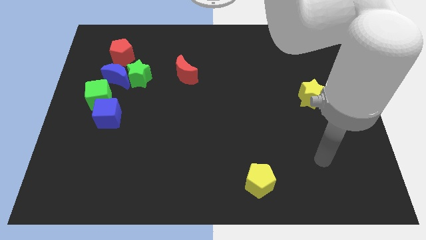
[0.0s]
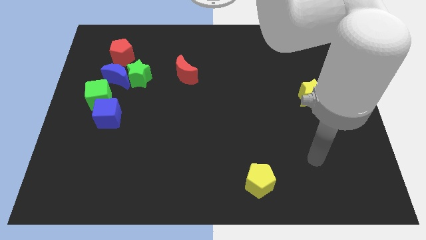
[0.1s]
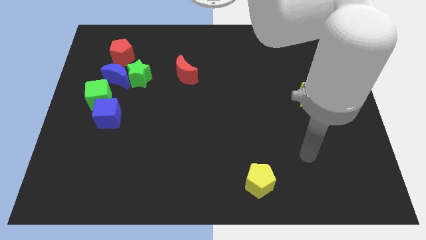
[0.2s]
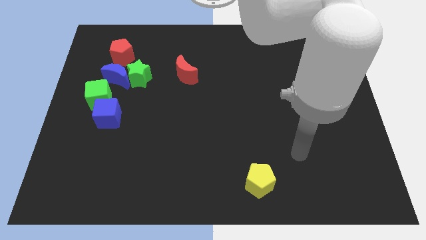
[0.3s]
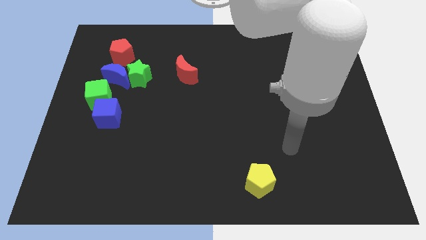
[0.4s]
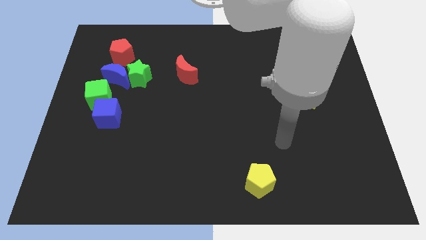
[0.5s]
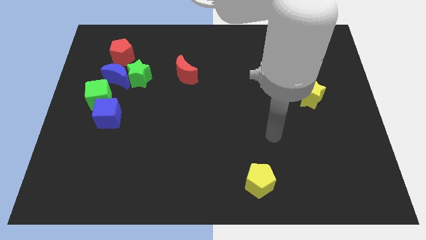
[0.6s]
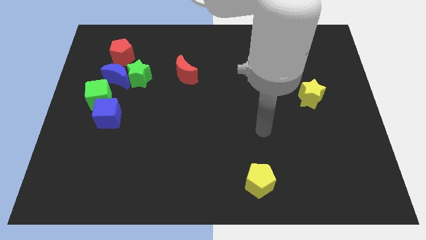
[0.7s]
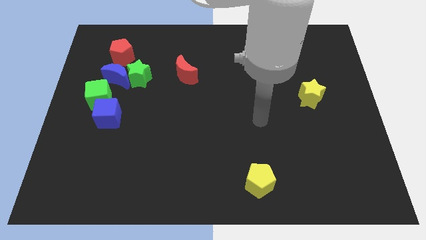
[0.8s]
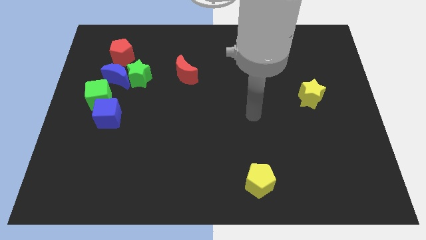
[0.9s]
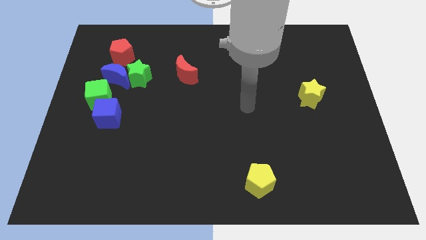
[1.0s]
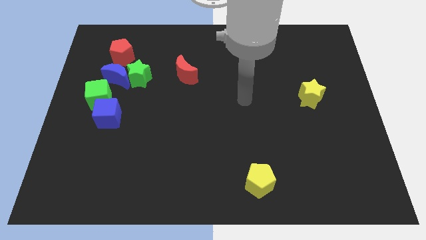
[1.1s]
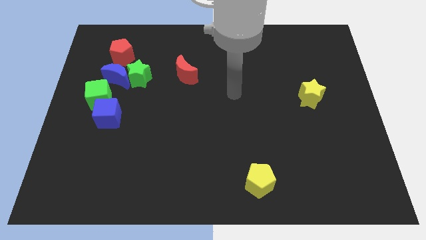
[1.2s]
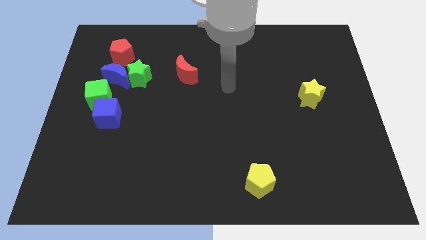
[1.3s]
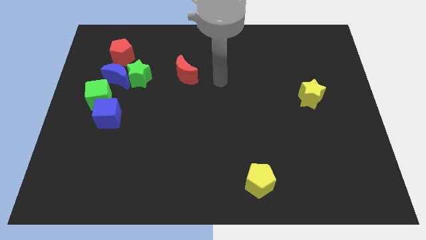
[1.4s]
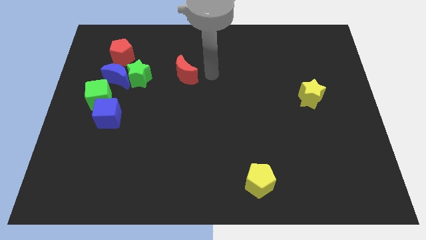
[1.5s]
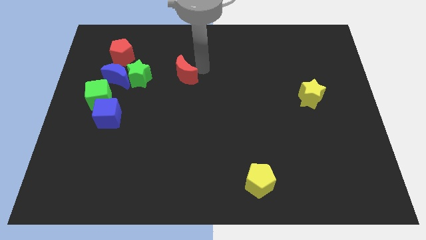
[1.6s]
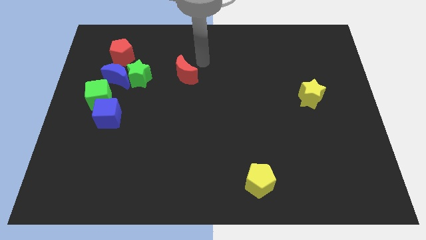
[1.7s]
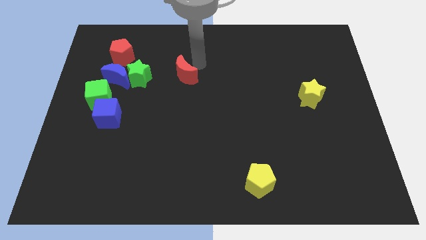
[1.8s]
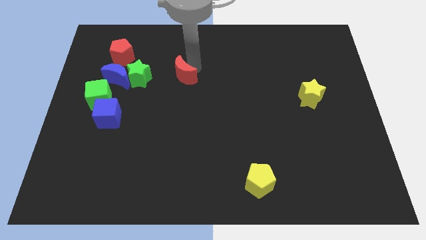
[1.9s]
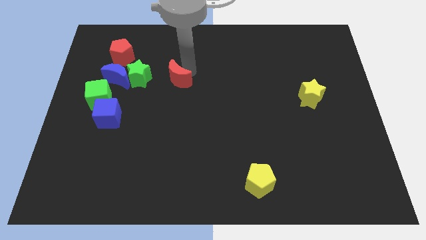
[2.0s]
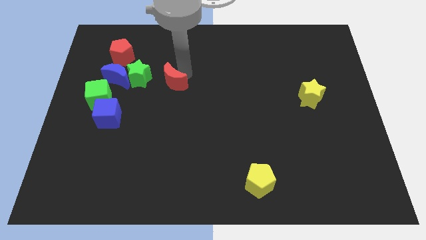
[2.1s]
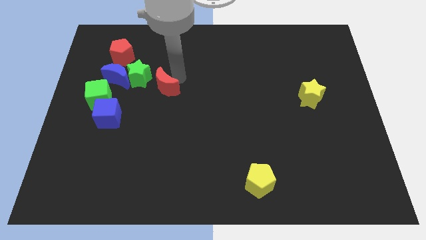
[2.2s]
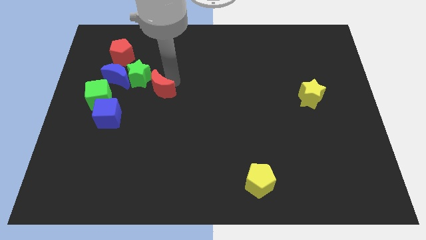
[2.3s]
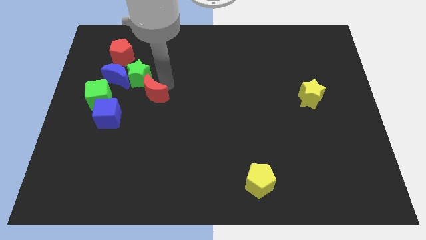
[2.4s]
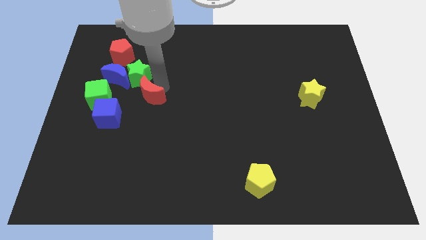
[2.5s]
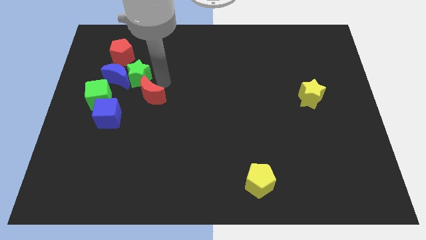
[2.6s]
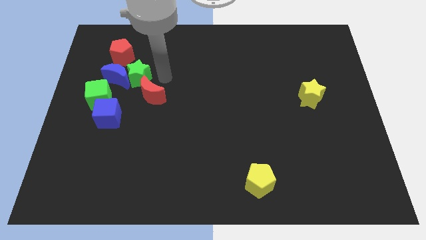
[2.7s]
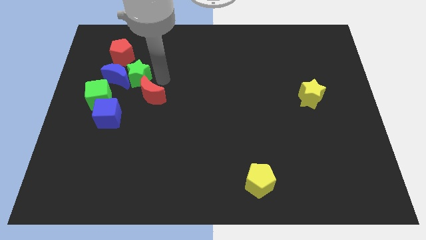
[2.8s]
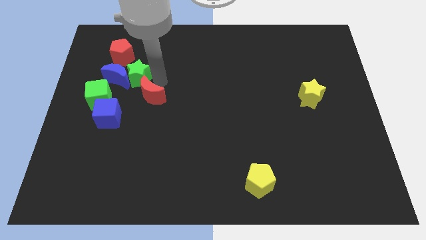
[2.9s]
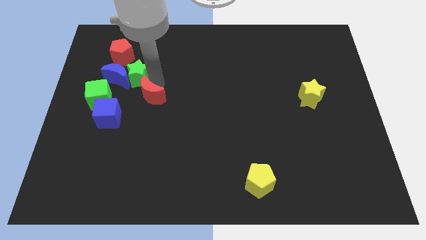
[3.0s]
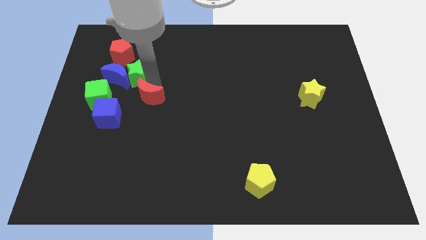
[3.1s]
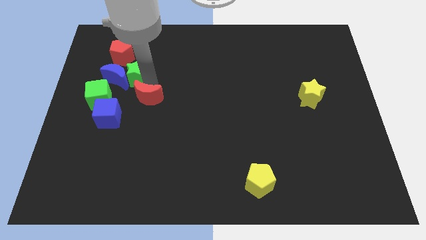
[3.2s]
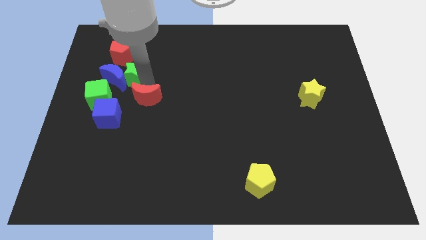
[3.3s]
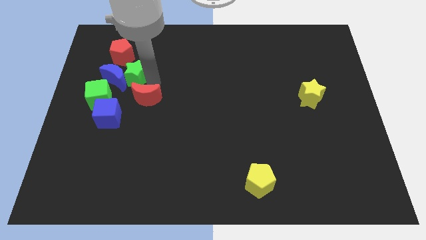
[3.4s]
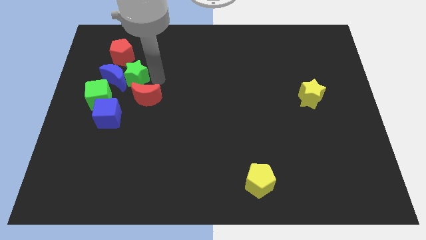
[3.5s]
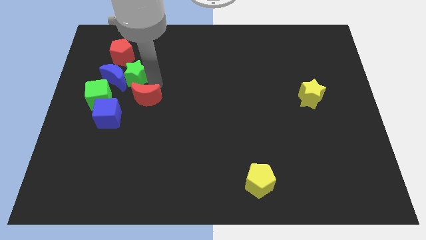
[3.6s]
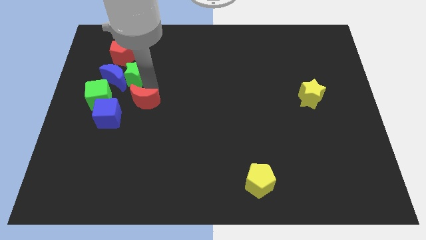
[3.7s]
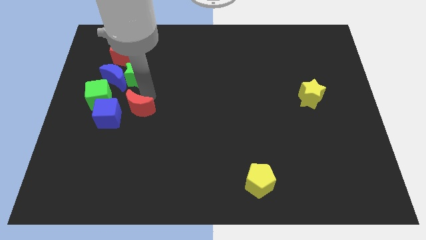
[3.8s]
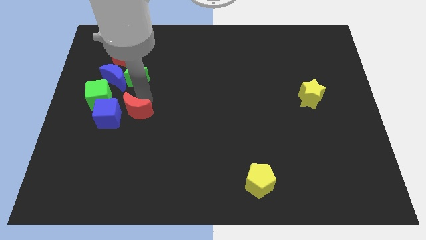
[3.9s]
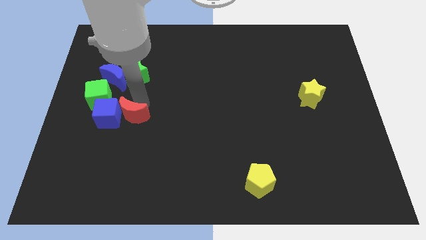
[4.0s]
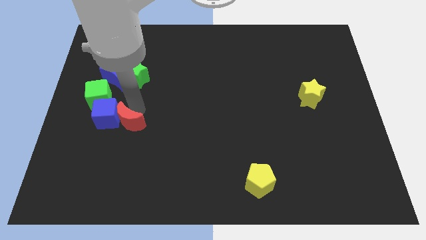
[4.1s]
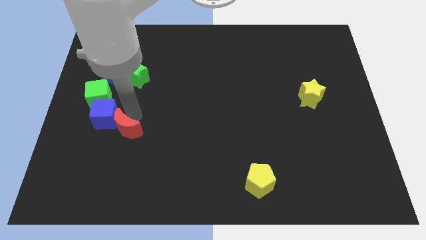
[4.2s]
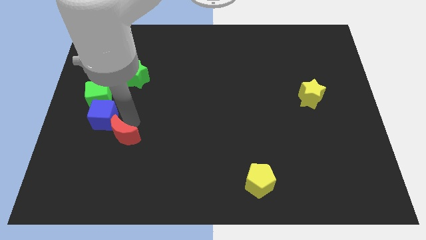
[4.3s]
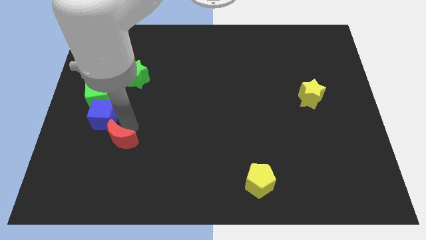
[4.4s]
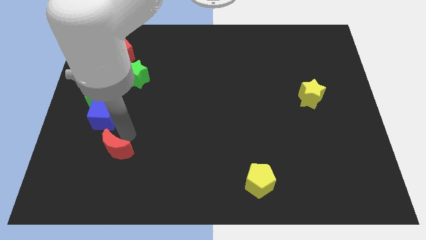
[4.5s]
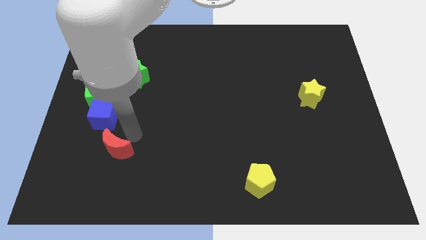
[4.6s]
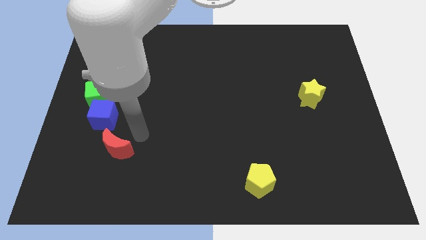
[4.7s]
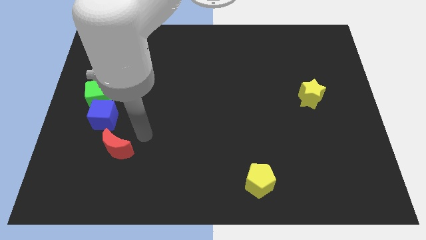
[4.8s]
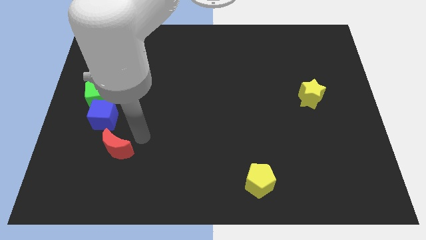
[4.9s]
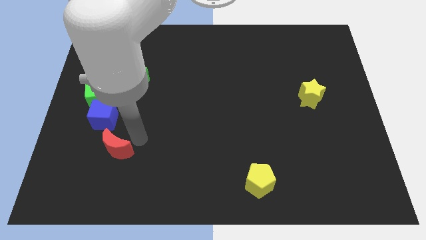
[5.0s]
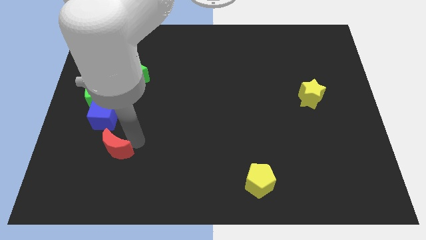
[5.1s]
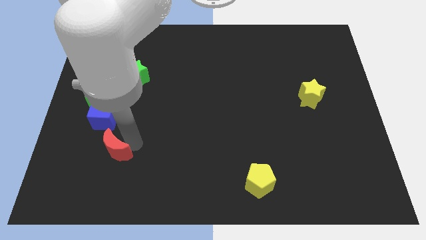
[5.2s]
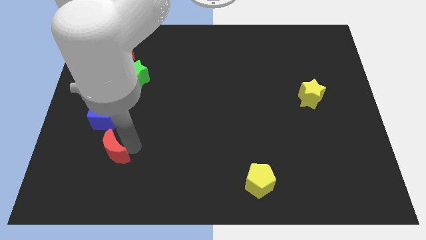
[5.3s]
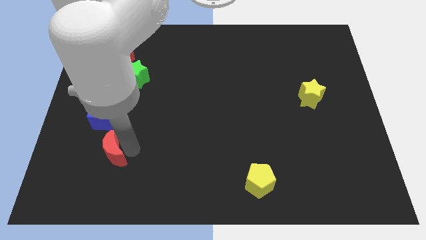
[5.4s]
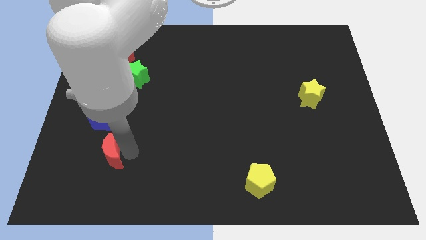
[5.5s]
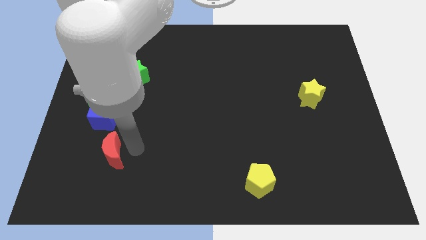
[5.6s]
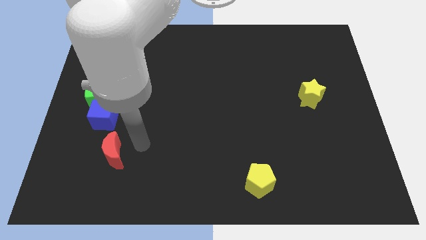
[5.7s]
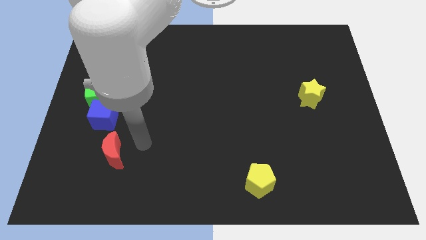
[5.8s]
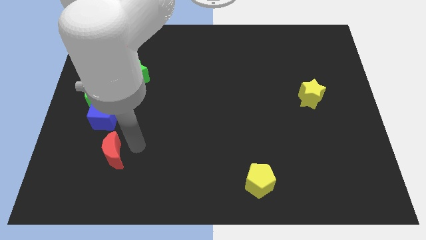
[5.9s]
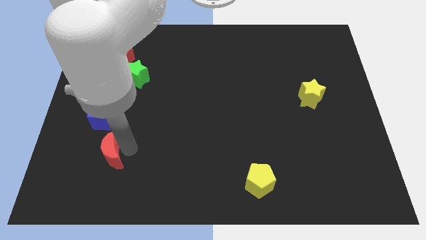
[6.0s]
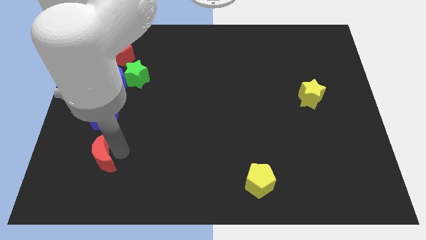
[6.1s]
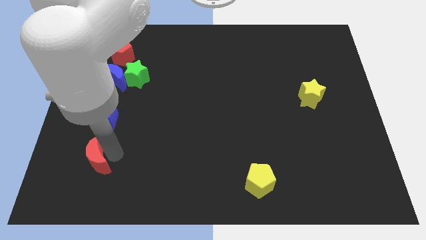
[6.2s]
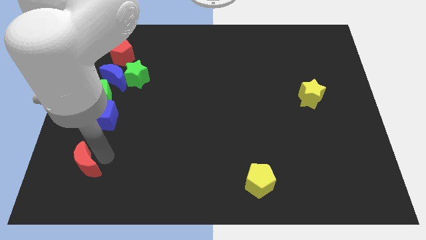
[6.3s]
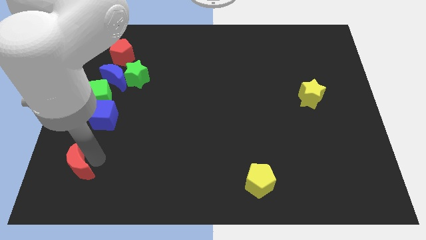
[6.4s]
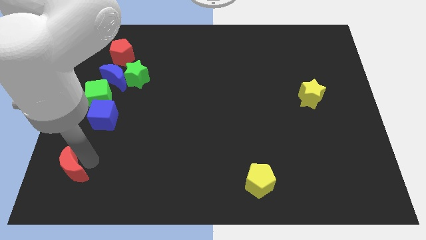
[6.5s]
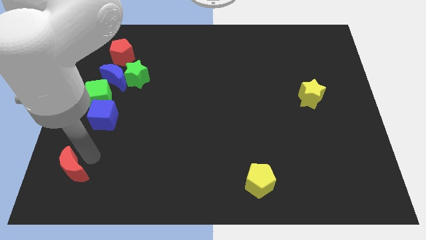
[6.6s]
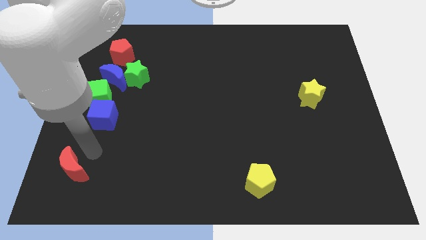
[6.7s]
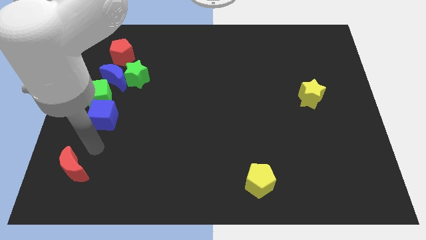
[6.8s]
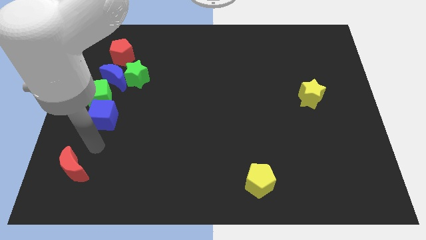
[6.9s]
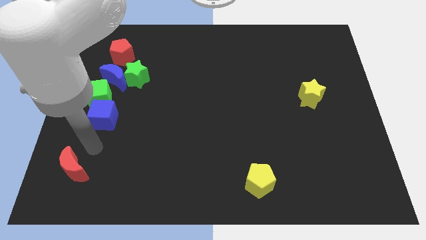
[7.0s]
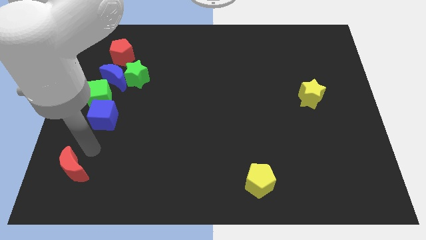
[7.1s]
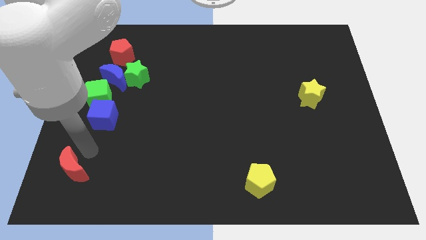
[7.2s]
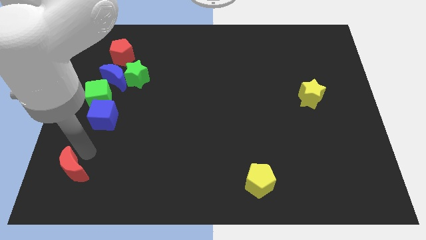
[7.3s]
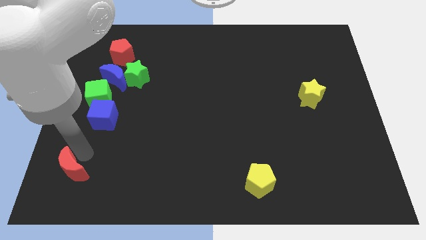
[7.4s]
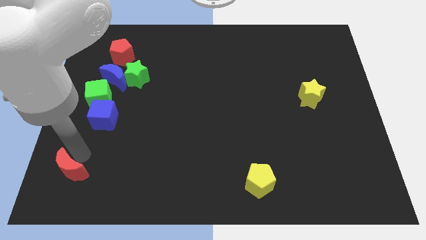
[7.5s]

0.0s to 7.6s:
push the red moon to the bottom left
